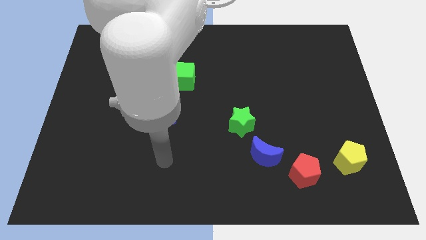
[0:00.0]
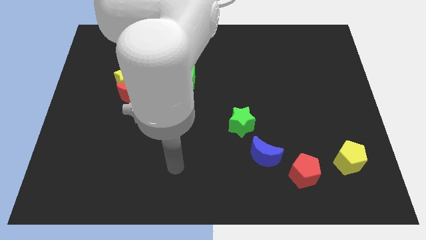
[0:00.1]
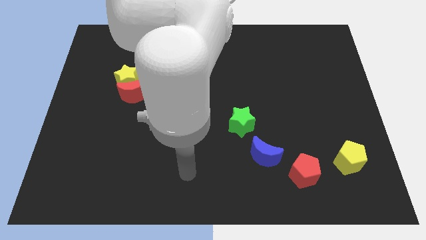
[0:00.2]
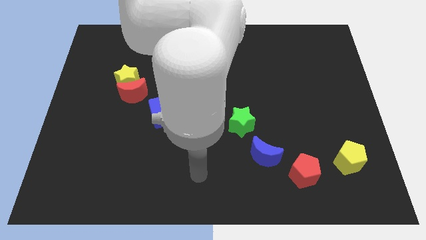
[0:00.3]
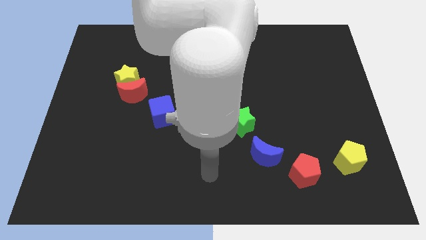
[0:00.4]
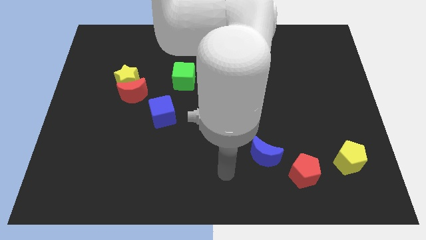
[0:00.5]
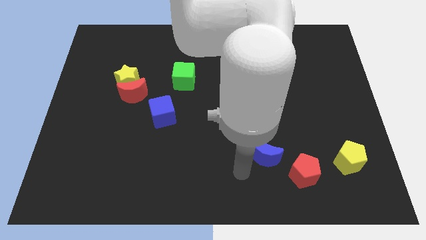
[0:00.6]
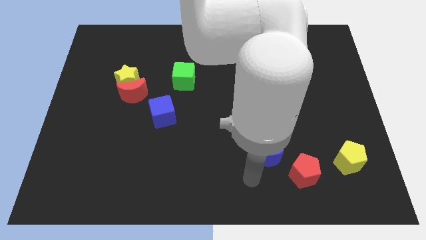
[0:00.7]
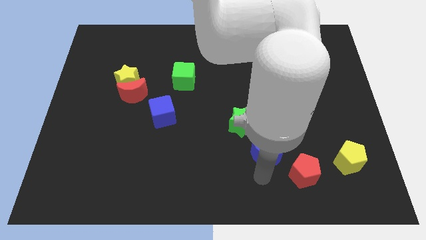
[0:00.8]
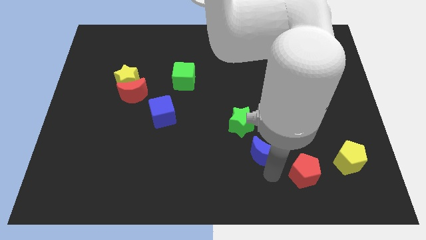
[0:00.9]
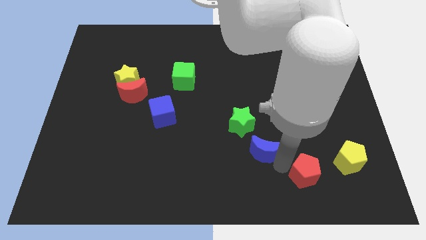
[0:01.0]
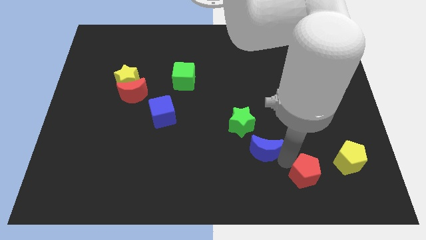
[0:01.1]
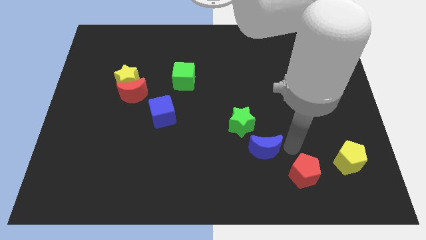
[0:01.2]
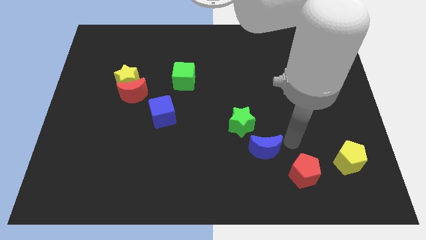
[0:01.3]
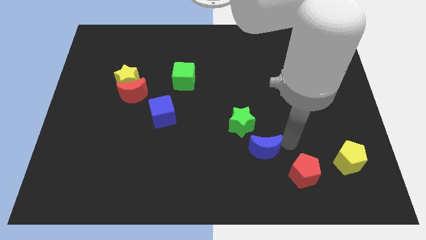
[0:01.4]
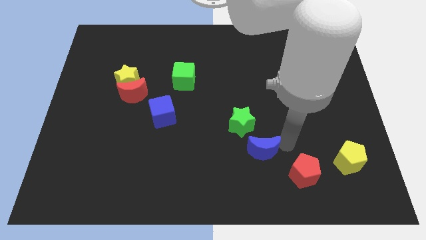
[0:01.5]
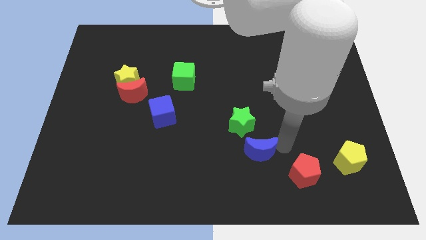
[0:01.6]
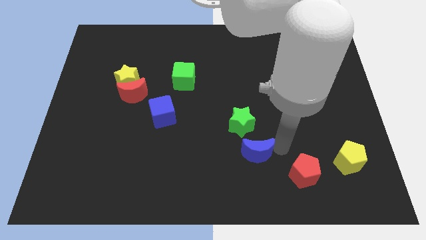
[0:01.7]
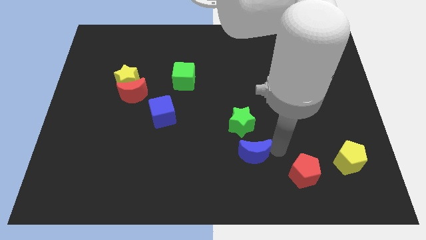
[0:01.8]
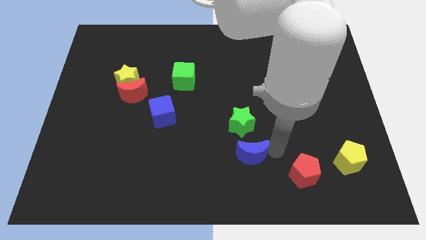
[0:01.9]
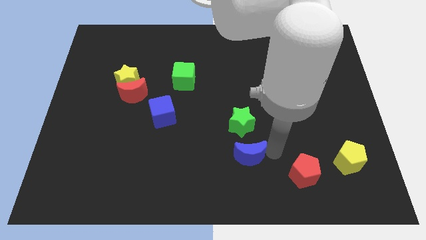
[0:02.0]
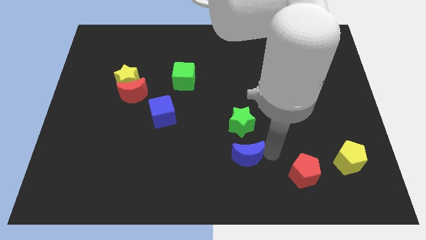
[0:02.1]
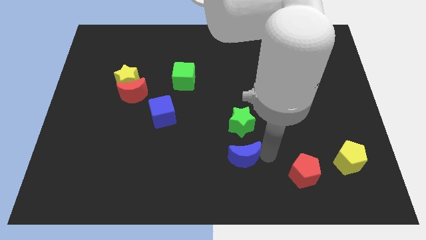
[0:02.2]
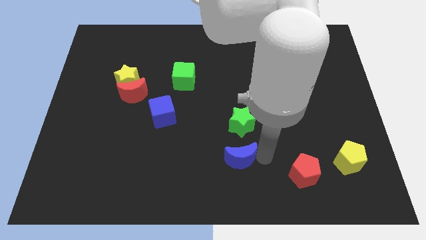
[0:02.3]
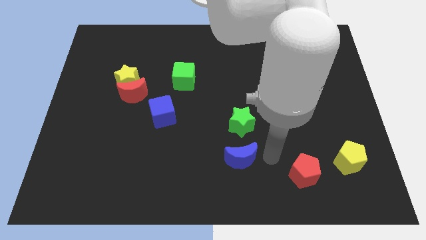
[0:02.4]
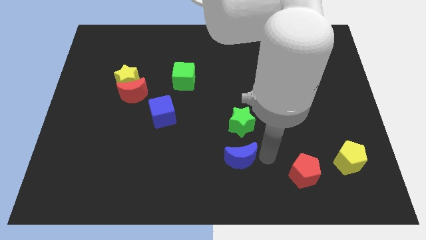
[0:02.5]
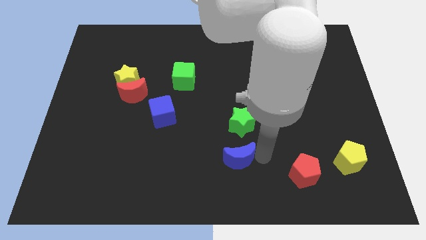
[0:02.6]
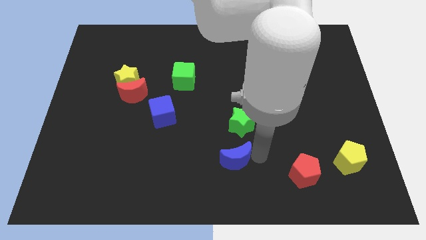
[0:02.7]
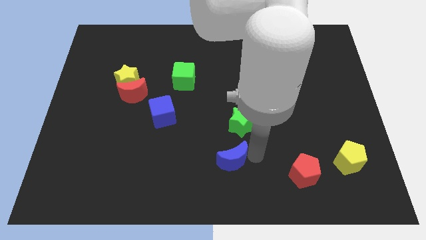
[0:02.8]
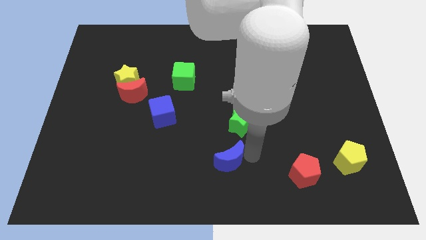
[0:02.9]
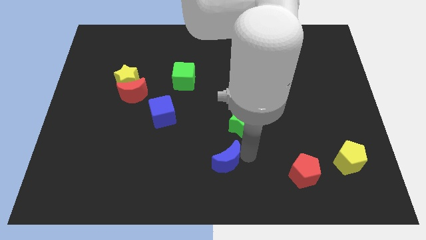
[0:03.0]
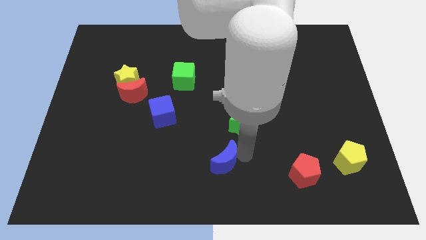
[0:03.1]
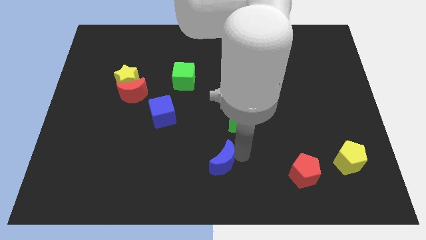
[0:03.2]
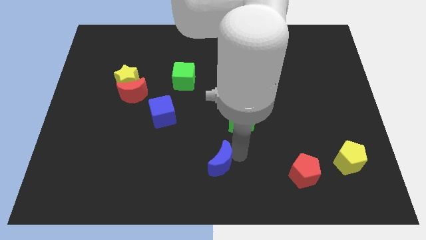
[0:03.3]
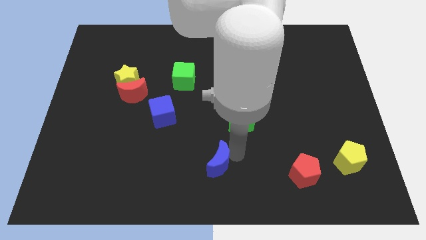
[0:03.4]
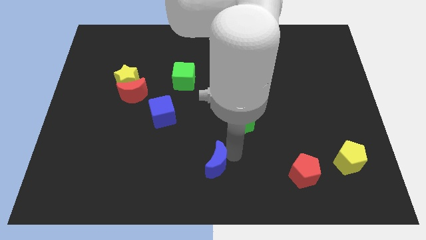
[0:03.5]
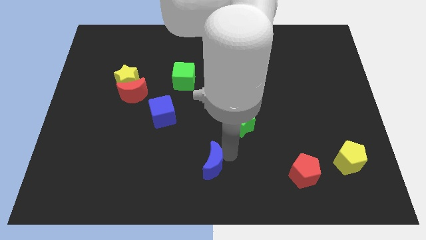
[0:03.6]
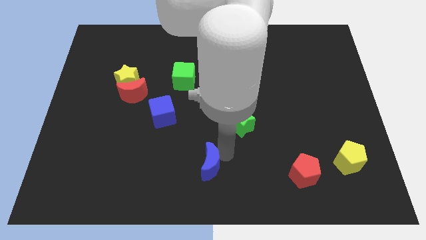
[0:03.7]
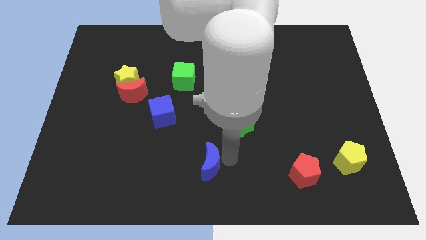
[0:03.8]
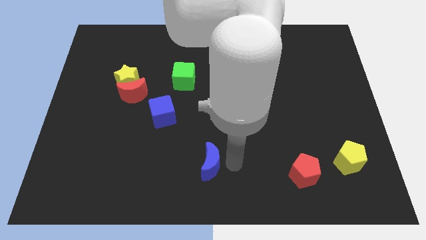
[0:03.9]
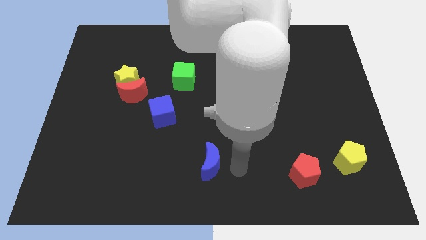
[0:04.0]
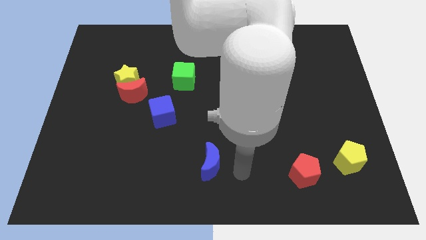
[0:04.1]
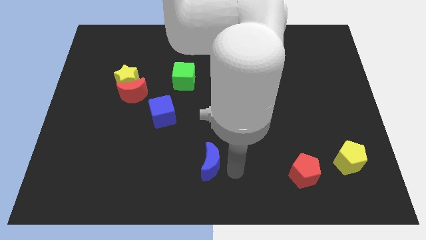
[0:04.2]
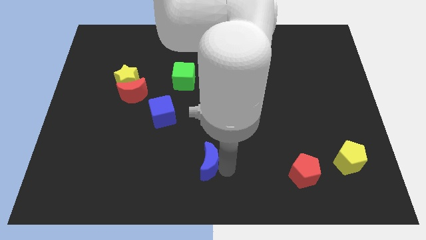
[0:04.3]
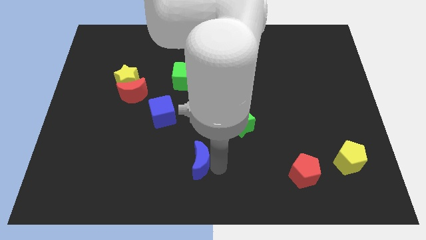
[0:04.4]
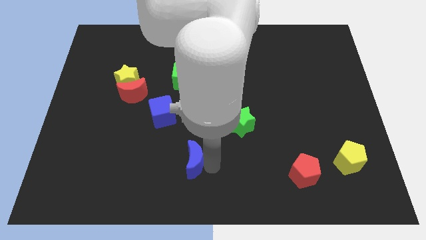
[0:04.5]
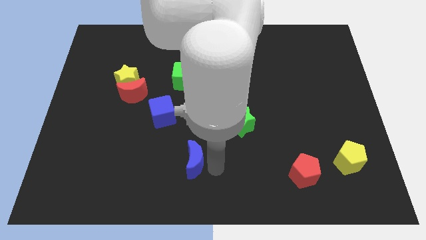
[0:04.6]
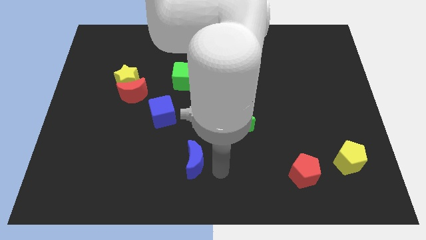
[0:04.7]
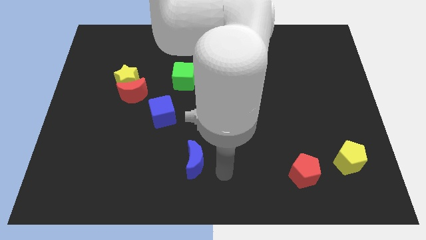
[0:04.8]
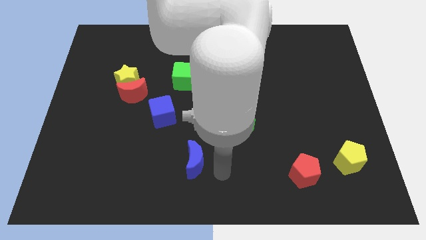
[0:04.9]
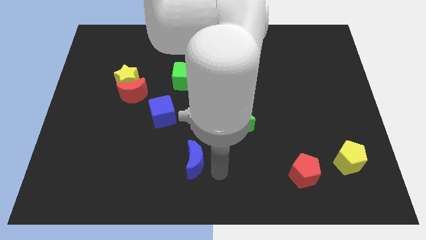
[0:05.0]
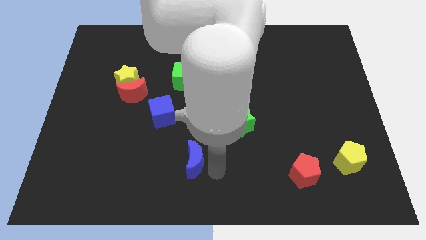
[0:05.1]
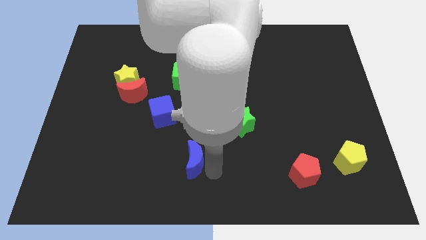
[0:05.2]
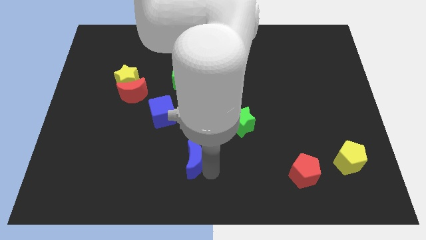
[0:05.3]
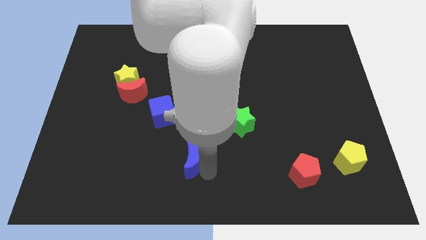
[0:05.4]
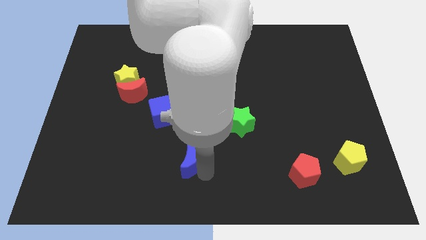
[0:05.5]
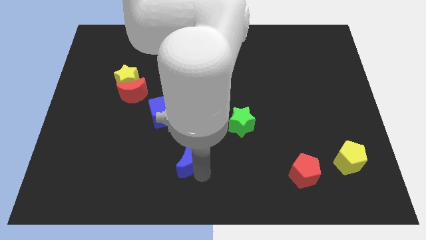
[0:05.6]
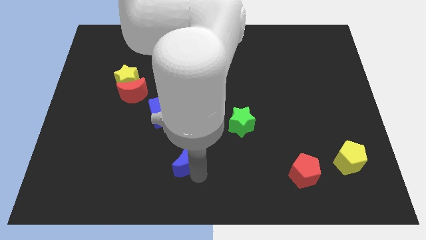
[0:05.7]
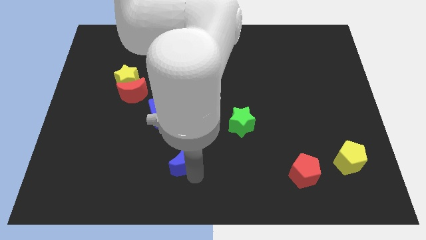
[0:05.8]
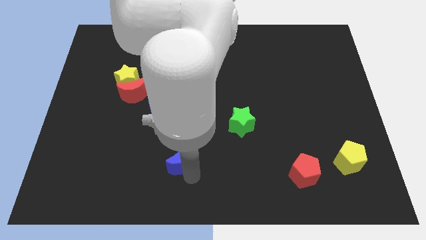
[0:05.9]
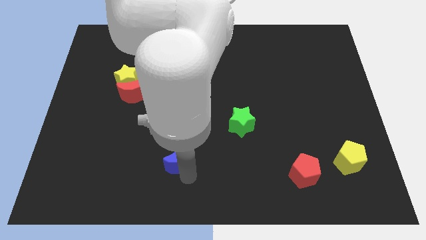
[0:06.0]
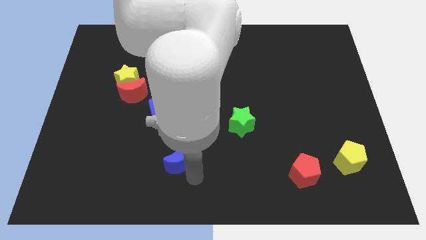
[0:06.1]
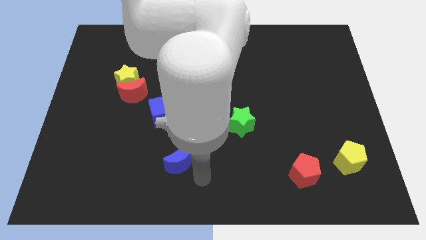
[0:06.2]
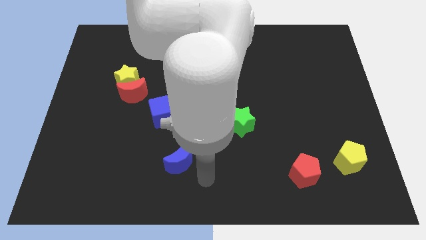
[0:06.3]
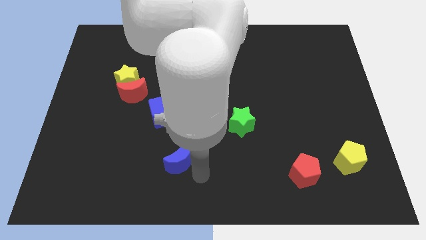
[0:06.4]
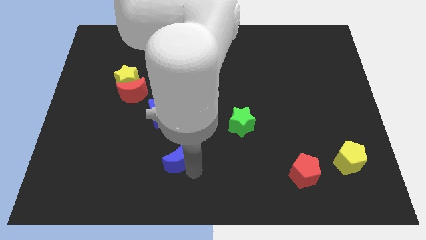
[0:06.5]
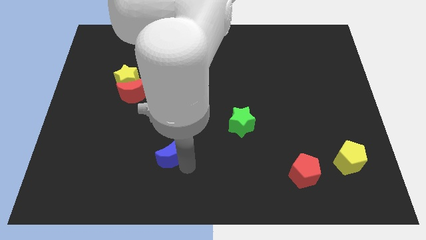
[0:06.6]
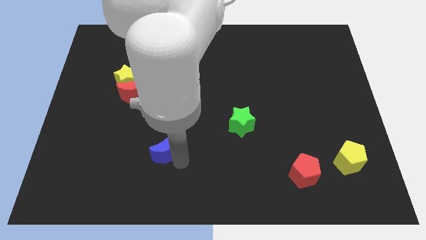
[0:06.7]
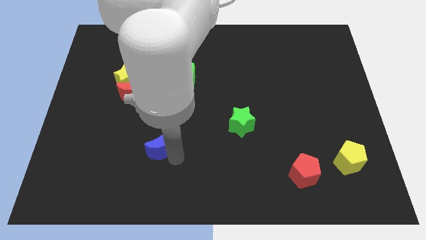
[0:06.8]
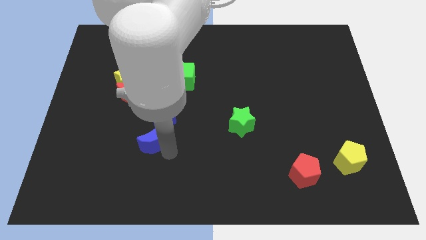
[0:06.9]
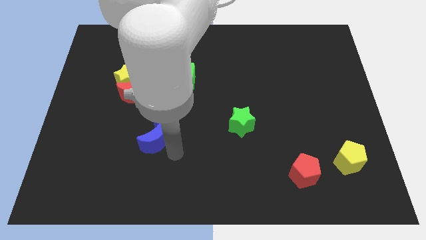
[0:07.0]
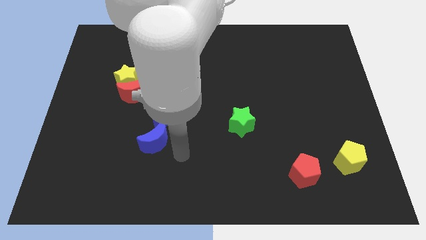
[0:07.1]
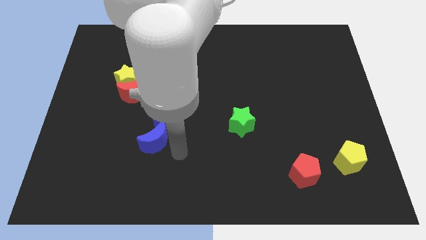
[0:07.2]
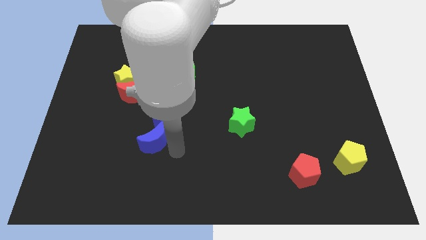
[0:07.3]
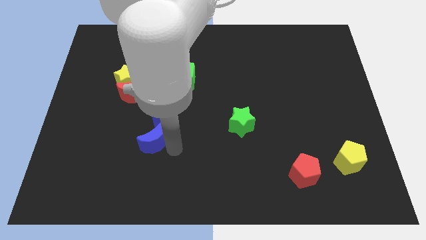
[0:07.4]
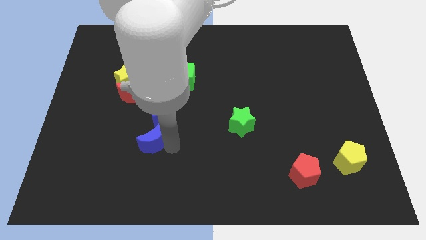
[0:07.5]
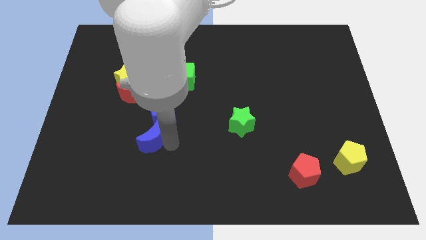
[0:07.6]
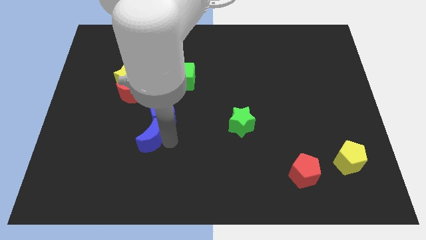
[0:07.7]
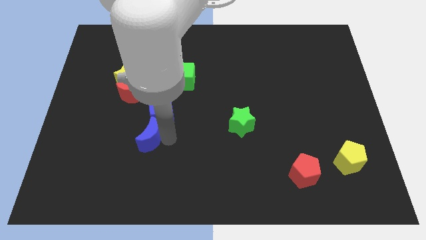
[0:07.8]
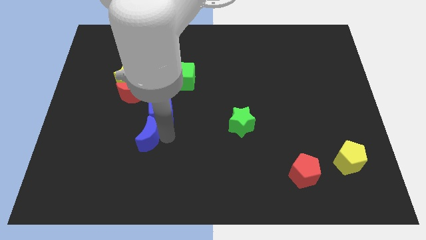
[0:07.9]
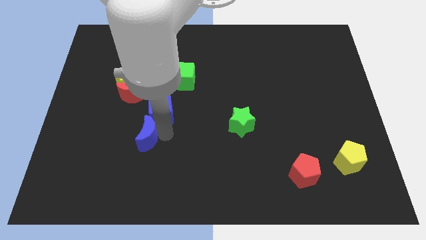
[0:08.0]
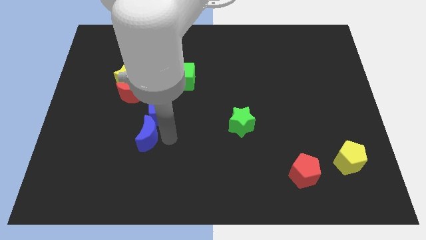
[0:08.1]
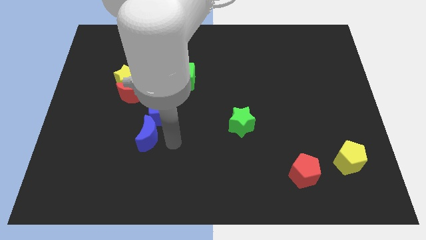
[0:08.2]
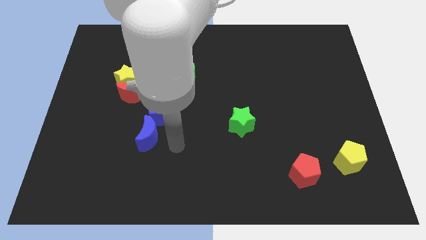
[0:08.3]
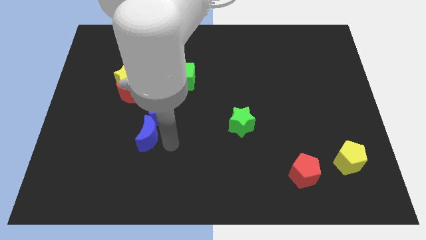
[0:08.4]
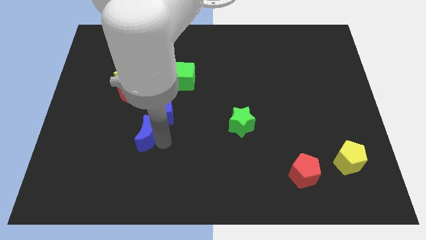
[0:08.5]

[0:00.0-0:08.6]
slide the blue moon below the red moon
